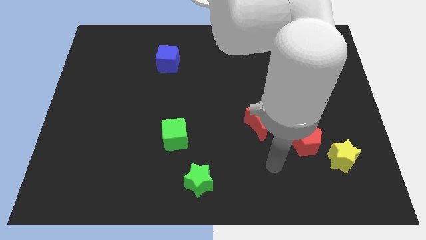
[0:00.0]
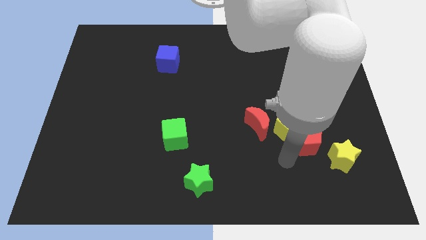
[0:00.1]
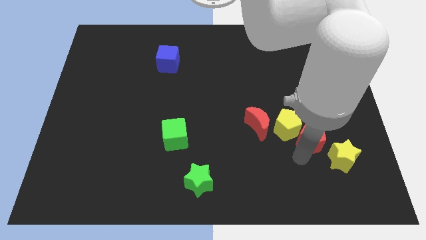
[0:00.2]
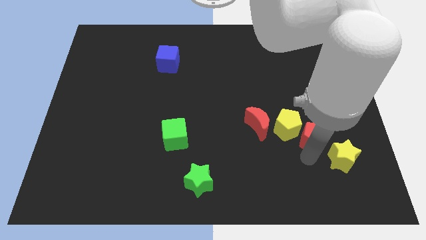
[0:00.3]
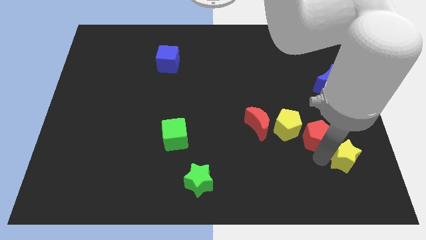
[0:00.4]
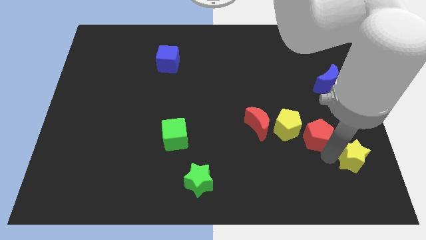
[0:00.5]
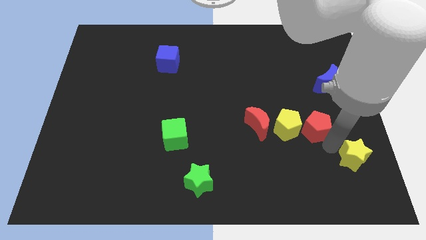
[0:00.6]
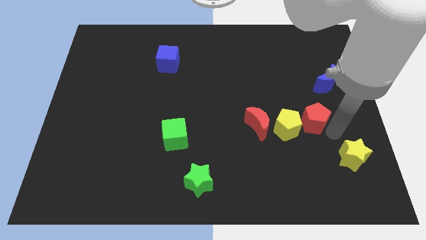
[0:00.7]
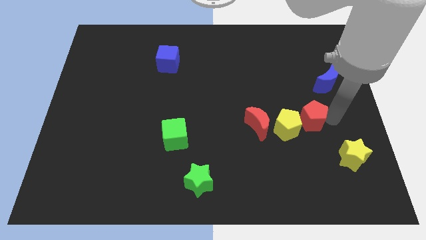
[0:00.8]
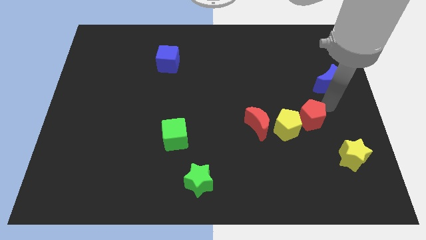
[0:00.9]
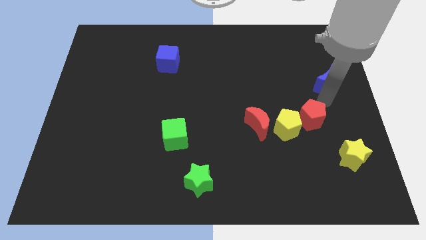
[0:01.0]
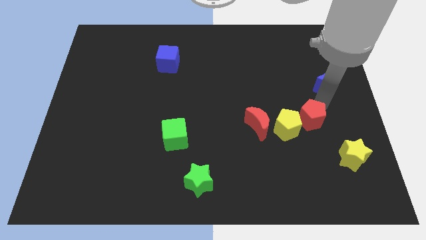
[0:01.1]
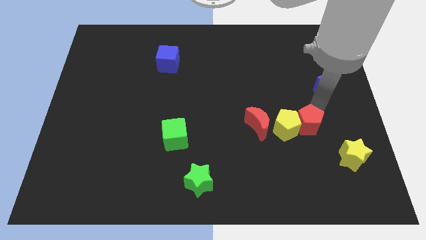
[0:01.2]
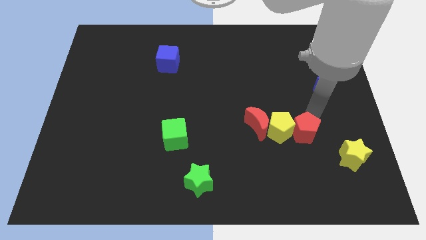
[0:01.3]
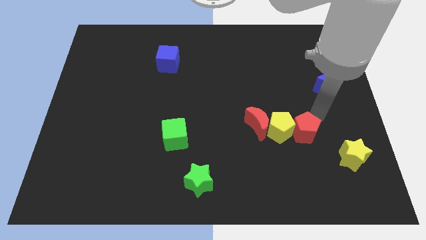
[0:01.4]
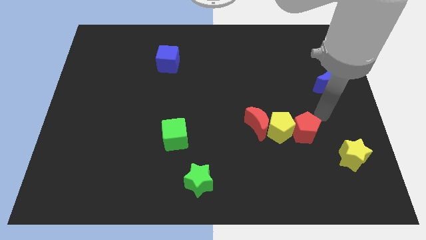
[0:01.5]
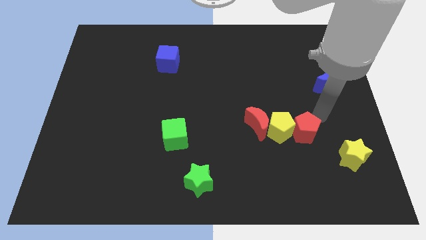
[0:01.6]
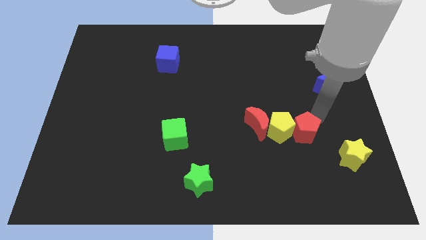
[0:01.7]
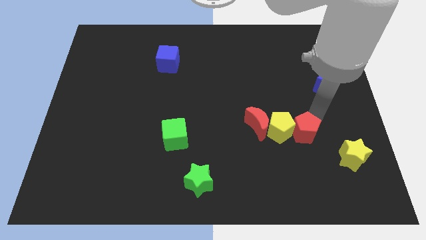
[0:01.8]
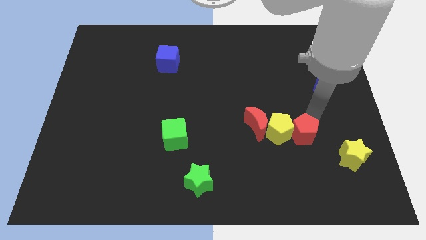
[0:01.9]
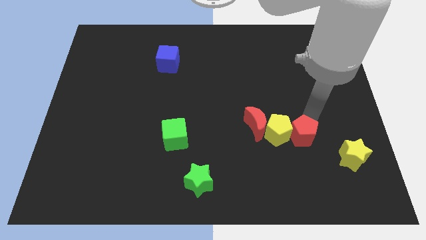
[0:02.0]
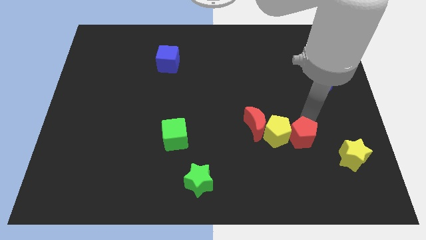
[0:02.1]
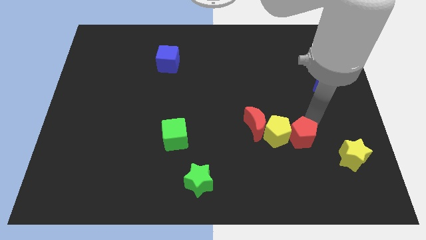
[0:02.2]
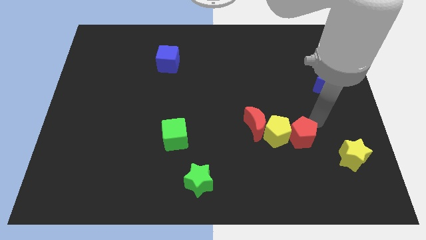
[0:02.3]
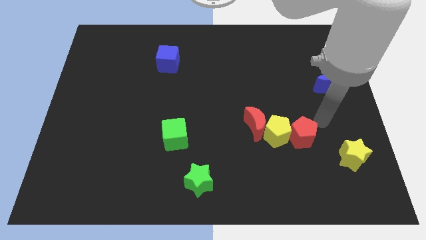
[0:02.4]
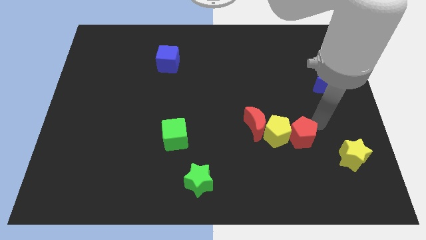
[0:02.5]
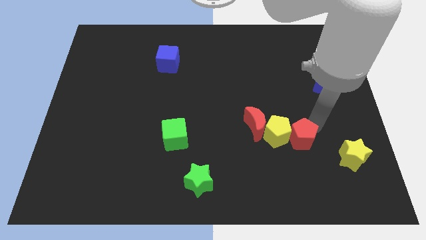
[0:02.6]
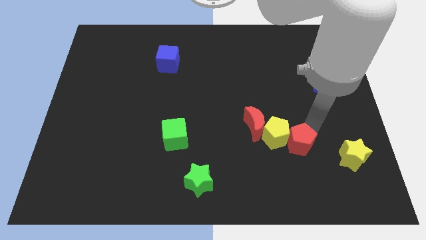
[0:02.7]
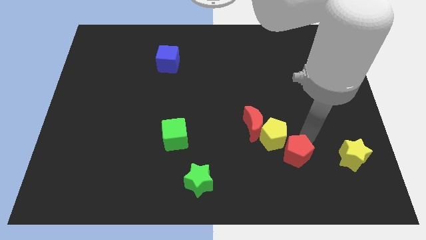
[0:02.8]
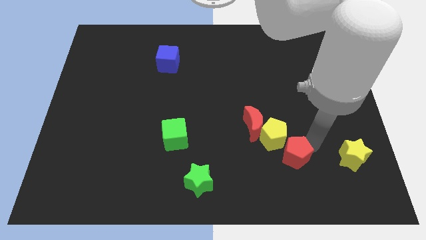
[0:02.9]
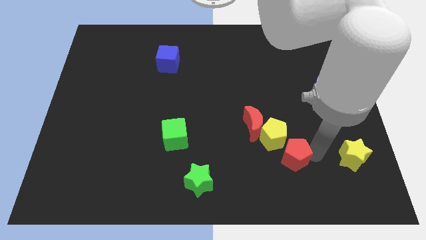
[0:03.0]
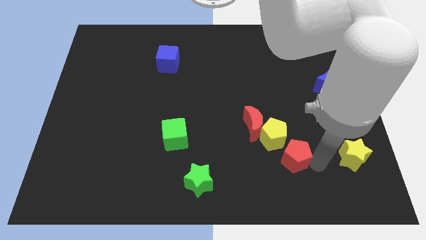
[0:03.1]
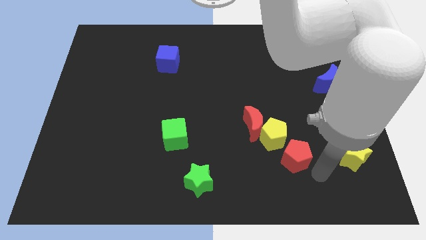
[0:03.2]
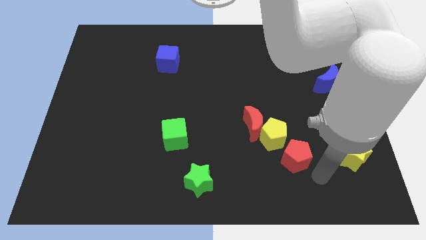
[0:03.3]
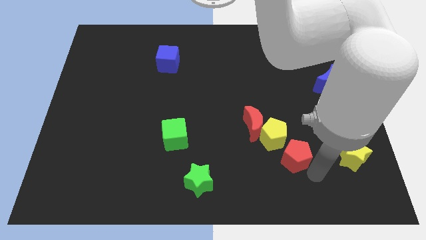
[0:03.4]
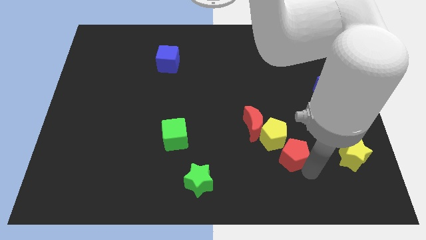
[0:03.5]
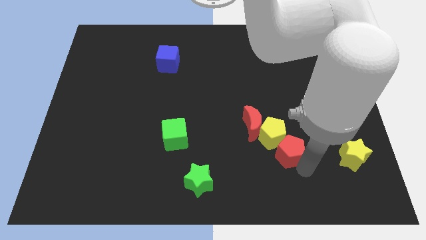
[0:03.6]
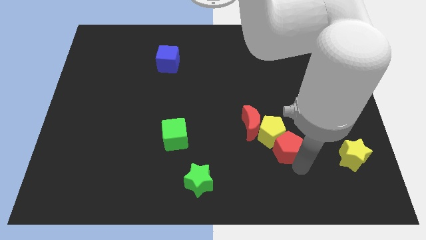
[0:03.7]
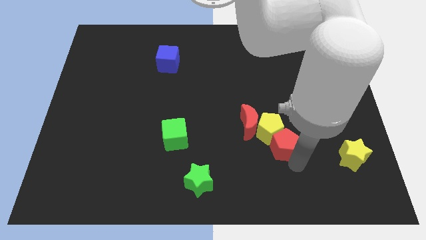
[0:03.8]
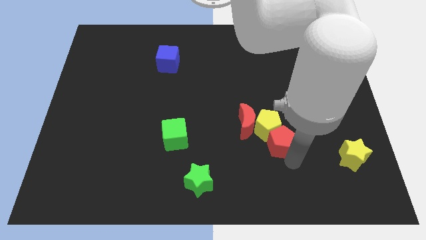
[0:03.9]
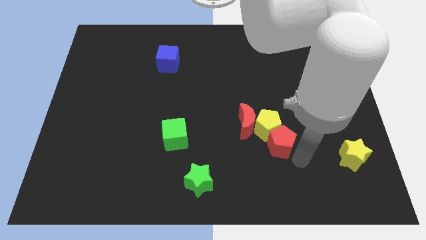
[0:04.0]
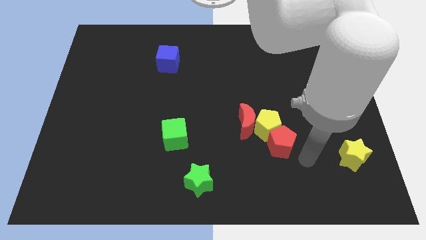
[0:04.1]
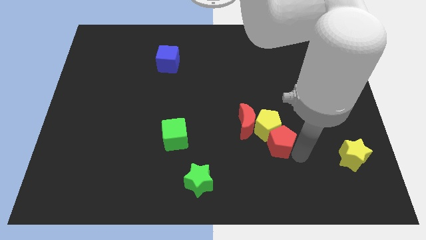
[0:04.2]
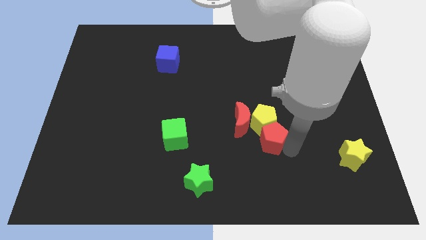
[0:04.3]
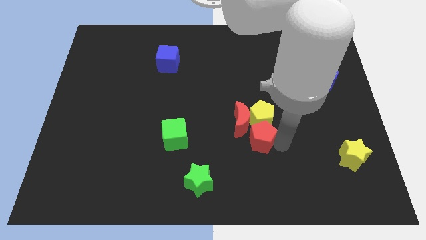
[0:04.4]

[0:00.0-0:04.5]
push the red pentagon next to the red moon

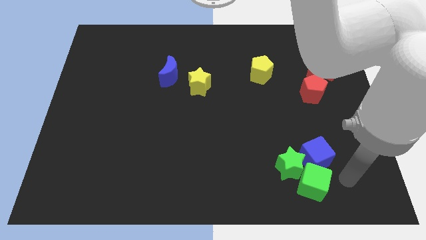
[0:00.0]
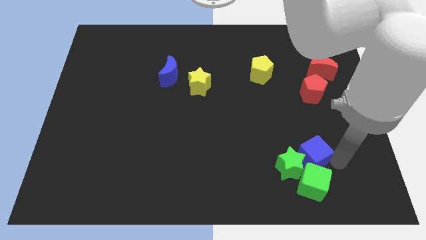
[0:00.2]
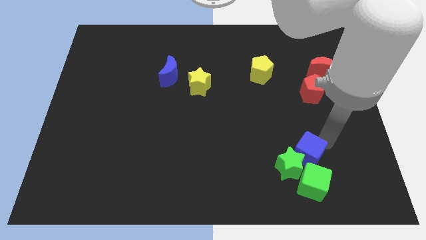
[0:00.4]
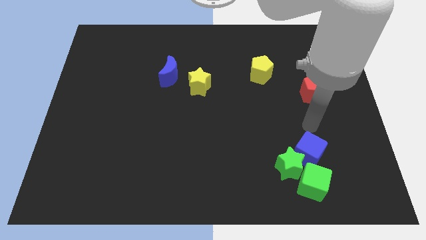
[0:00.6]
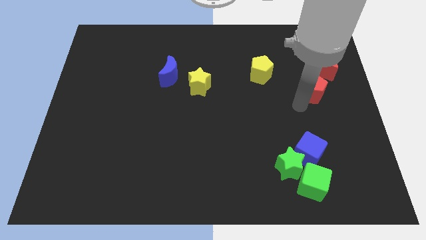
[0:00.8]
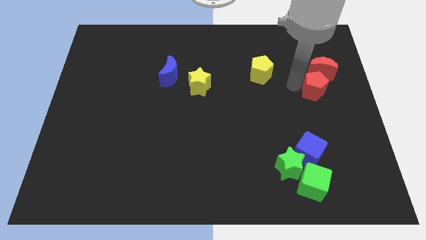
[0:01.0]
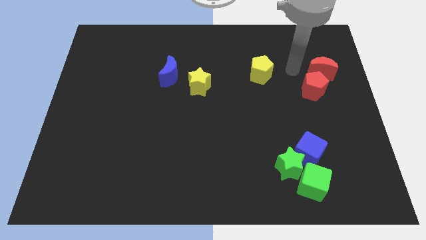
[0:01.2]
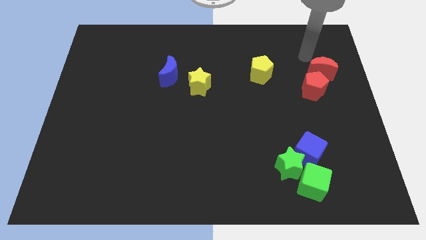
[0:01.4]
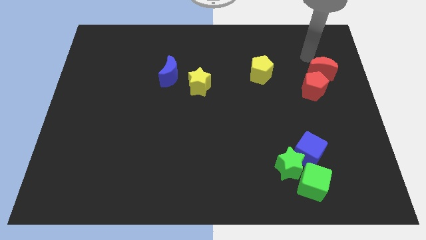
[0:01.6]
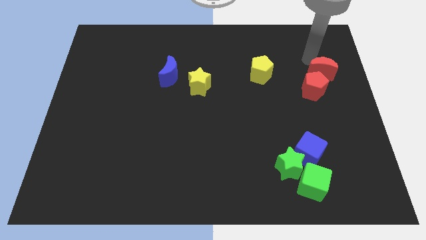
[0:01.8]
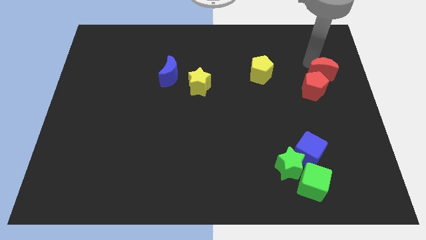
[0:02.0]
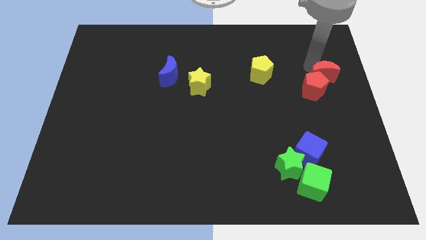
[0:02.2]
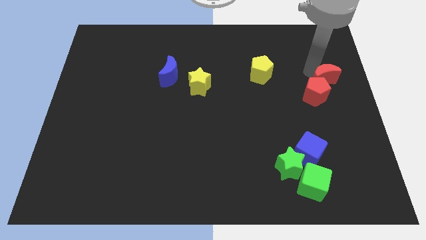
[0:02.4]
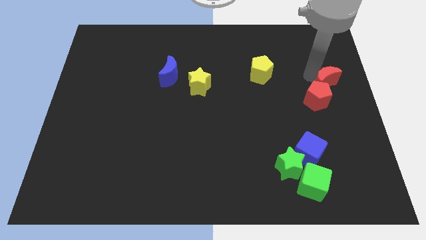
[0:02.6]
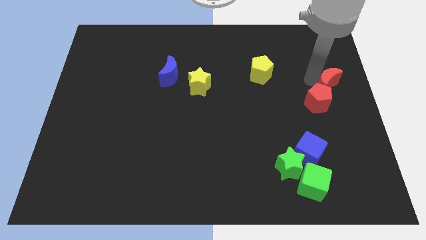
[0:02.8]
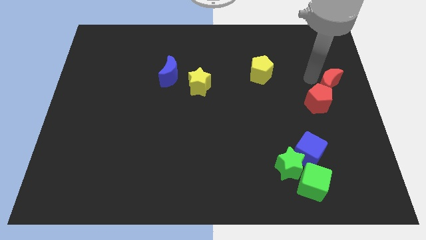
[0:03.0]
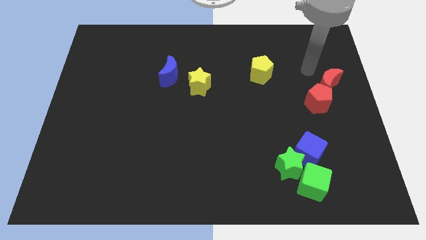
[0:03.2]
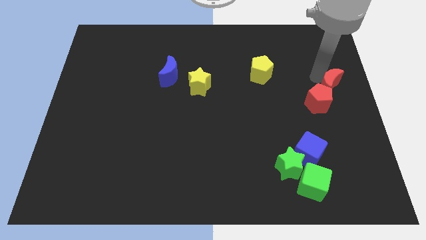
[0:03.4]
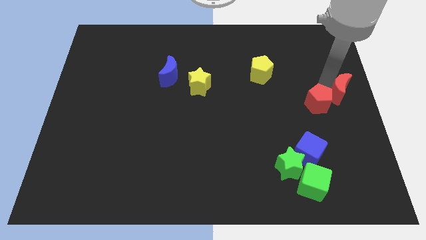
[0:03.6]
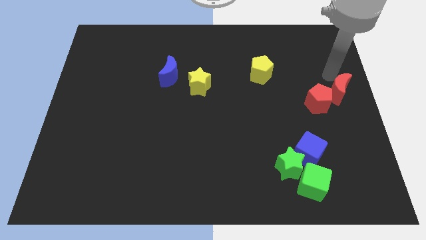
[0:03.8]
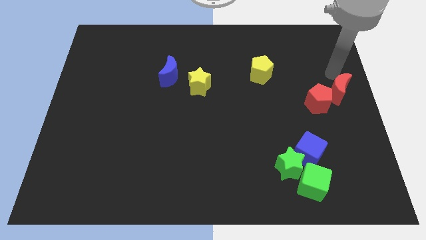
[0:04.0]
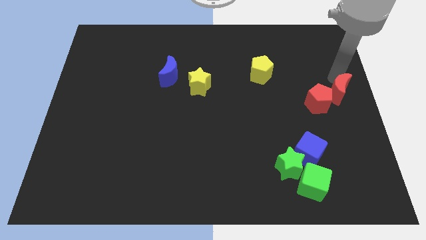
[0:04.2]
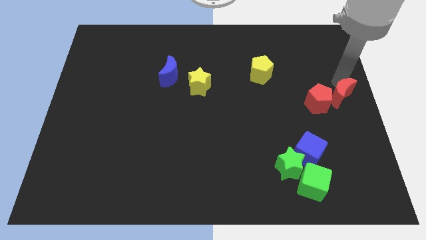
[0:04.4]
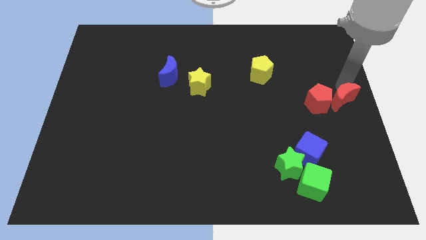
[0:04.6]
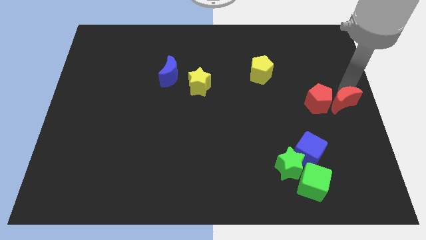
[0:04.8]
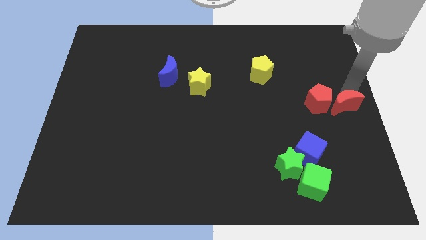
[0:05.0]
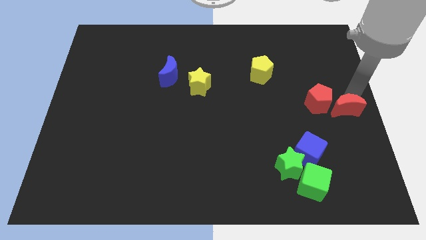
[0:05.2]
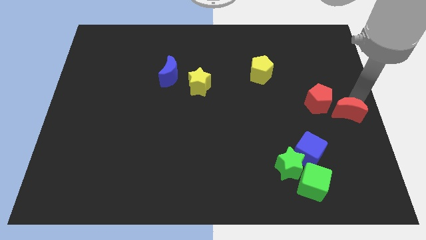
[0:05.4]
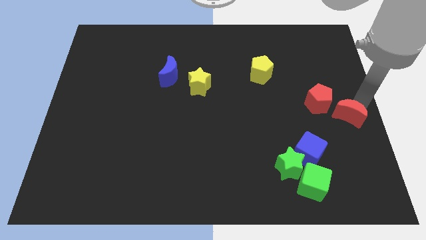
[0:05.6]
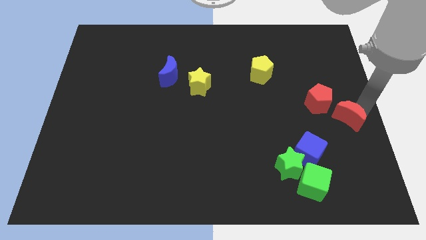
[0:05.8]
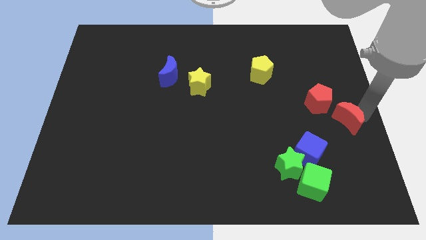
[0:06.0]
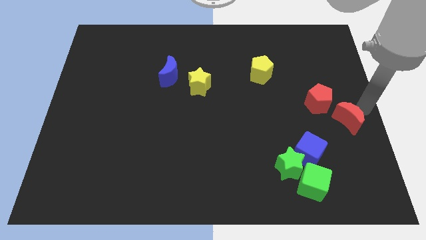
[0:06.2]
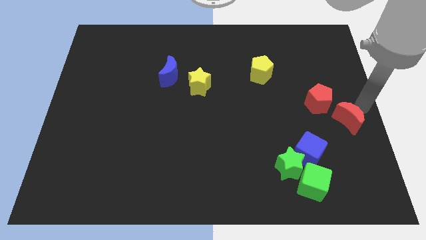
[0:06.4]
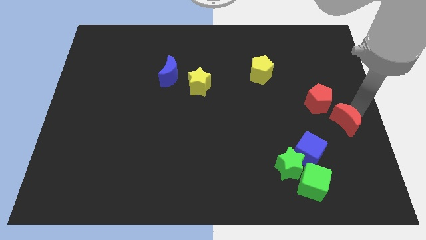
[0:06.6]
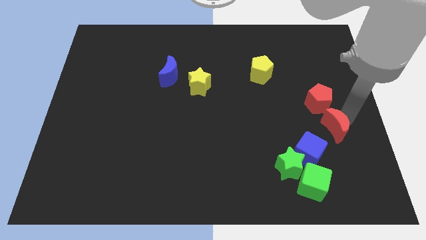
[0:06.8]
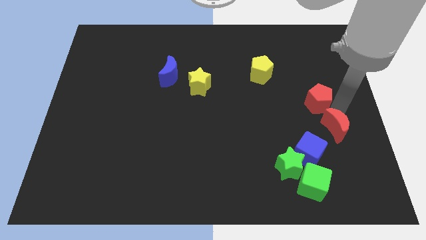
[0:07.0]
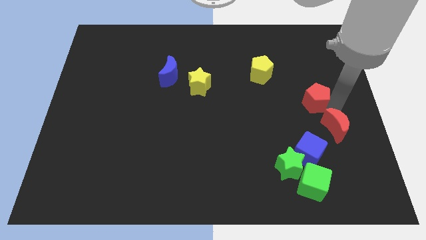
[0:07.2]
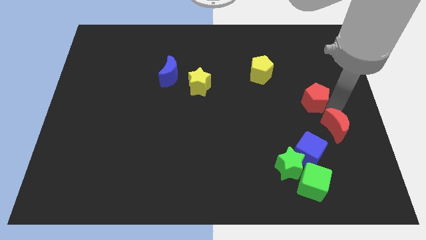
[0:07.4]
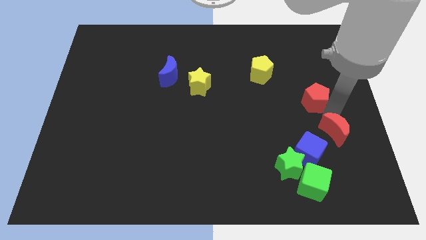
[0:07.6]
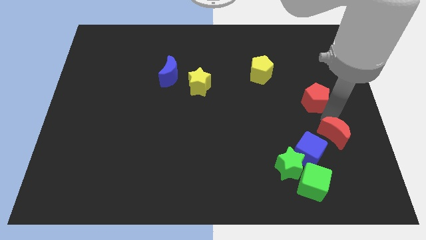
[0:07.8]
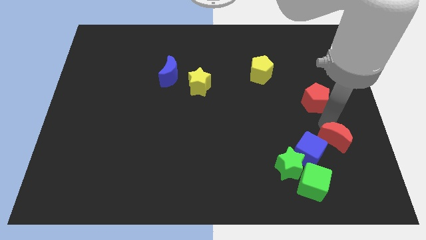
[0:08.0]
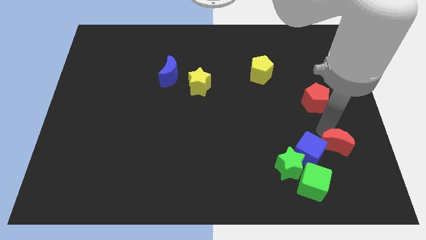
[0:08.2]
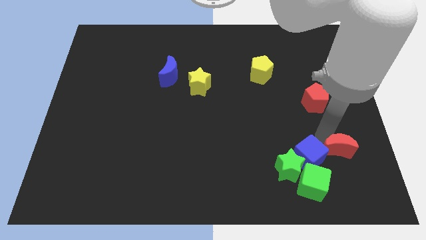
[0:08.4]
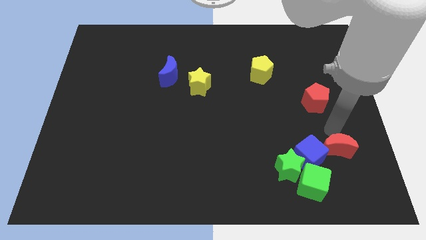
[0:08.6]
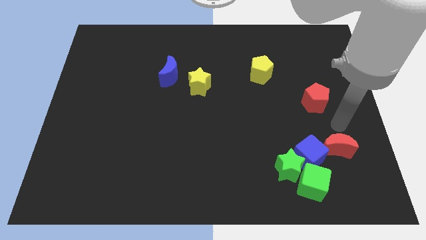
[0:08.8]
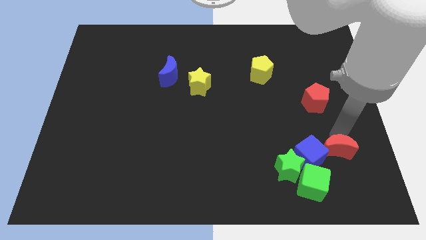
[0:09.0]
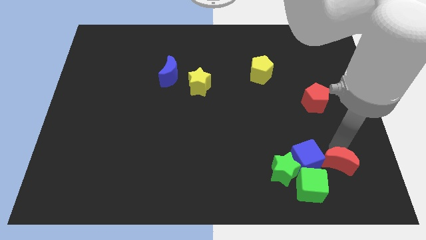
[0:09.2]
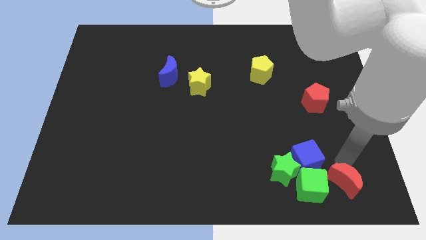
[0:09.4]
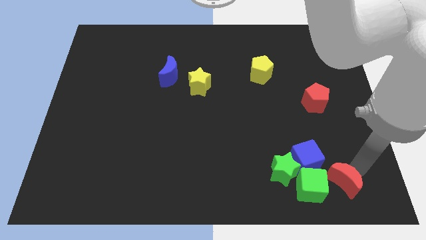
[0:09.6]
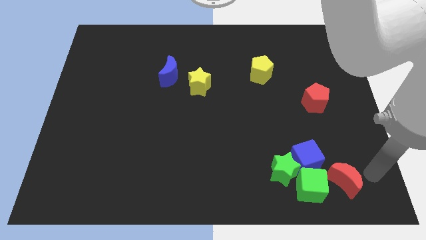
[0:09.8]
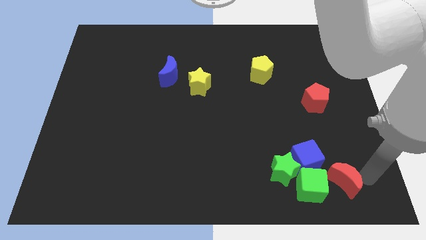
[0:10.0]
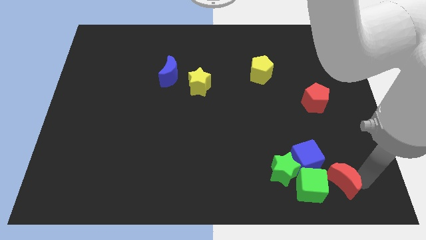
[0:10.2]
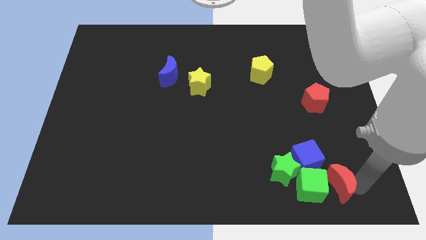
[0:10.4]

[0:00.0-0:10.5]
move the red moon close to the green cube
